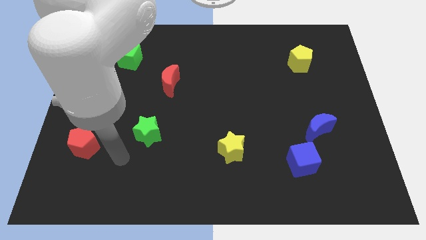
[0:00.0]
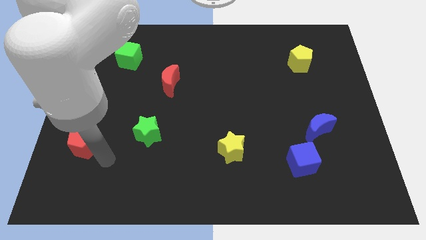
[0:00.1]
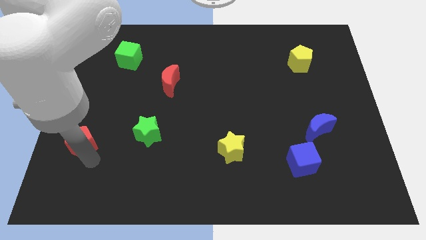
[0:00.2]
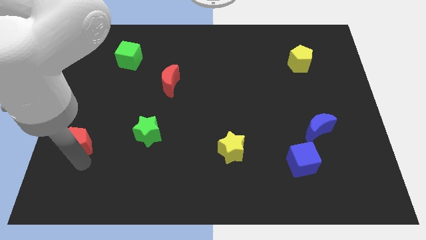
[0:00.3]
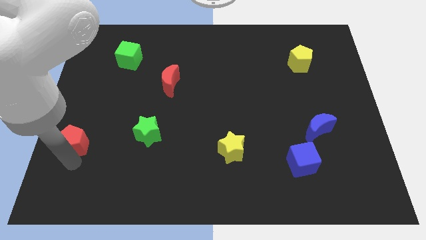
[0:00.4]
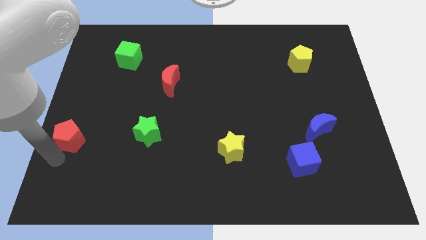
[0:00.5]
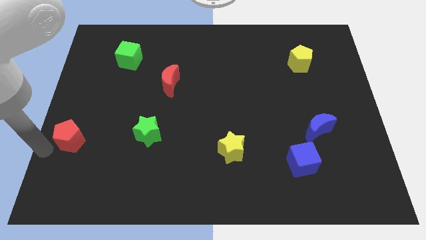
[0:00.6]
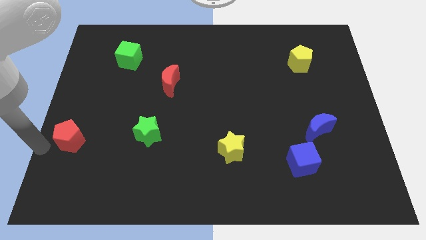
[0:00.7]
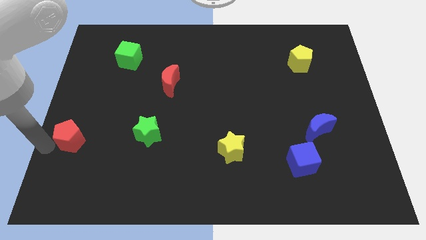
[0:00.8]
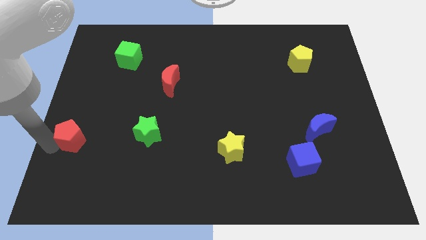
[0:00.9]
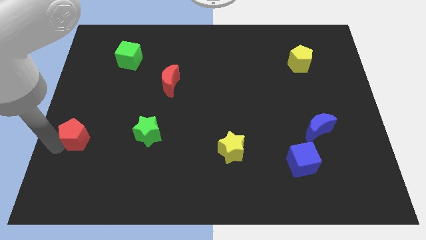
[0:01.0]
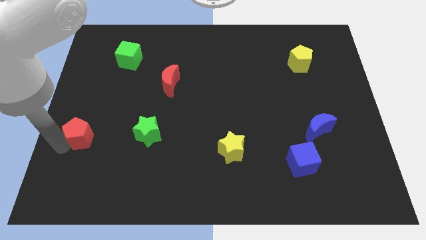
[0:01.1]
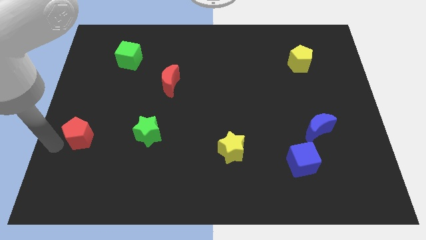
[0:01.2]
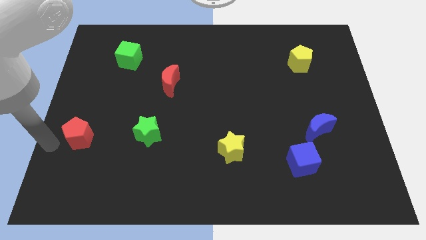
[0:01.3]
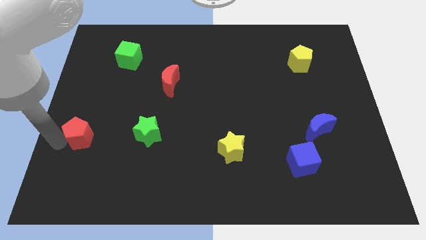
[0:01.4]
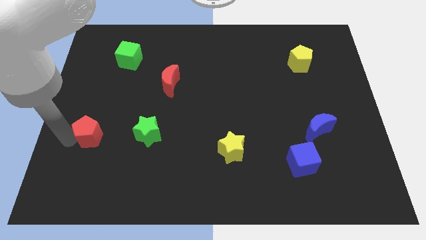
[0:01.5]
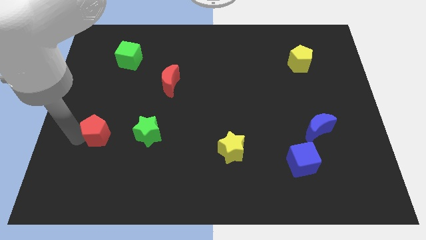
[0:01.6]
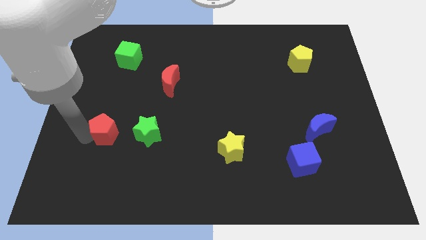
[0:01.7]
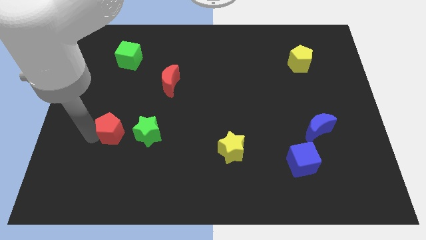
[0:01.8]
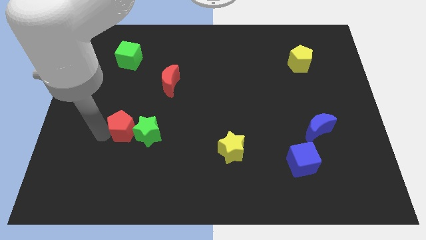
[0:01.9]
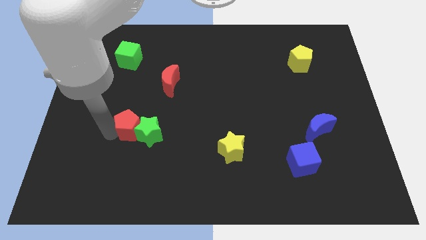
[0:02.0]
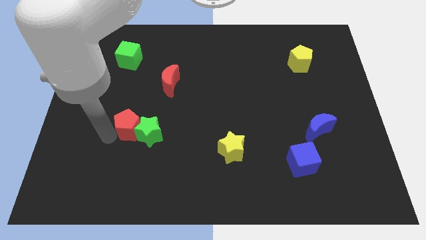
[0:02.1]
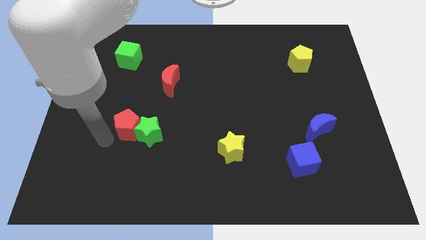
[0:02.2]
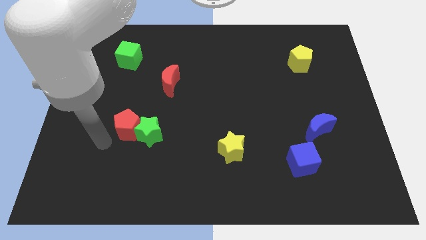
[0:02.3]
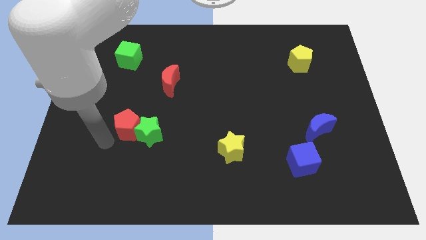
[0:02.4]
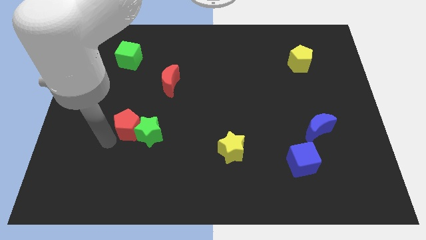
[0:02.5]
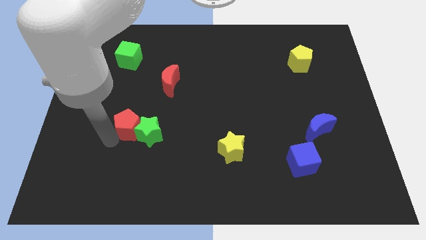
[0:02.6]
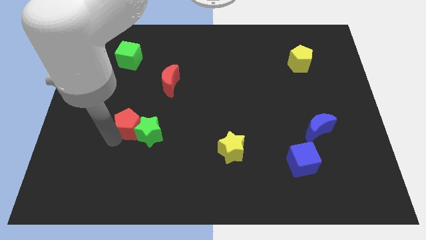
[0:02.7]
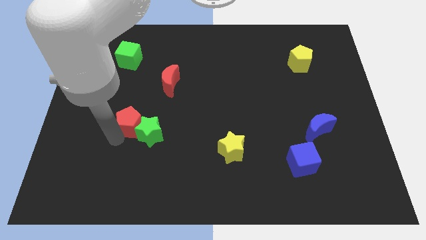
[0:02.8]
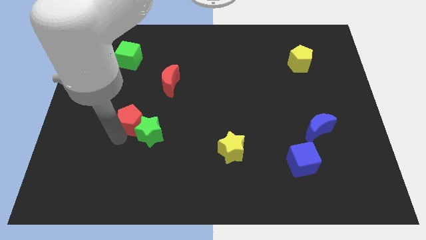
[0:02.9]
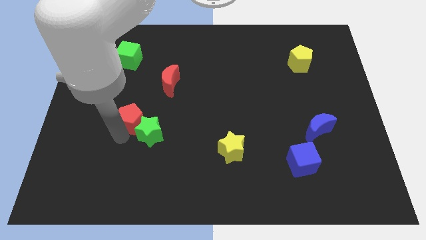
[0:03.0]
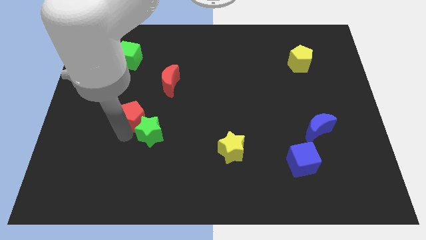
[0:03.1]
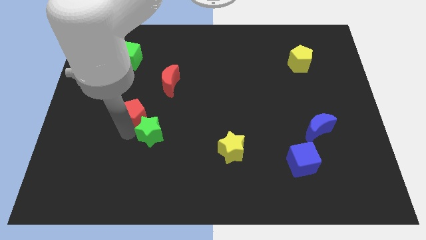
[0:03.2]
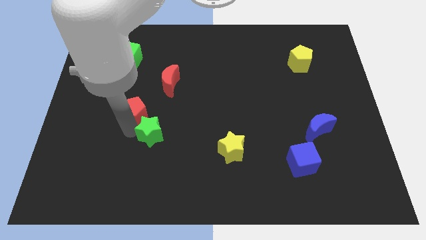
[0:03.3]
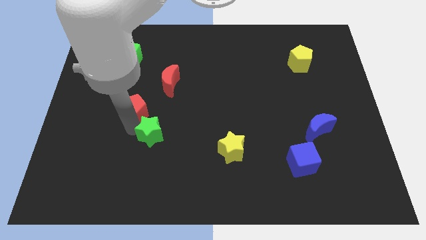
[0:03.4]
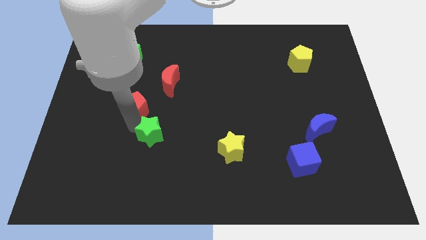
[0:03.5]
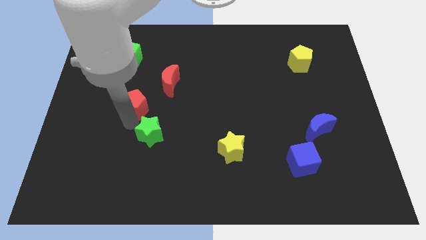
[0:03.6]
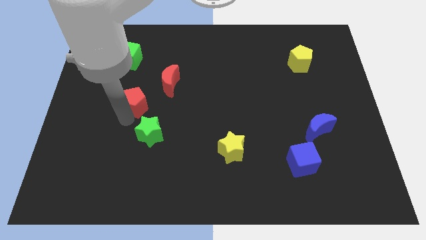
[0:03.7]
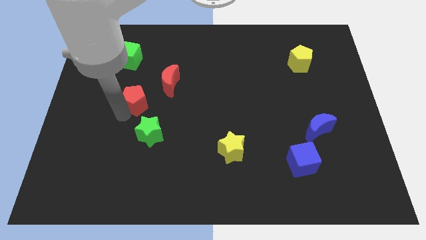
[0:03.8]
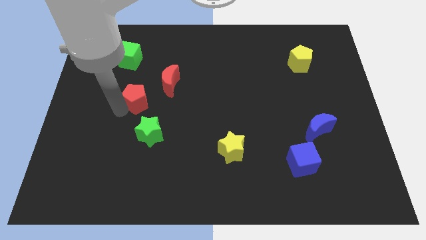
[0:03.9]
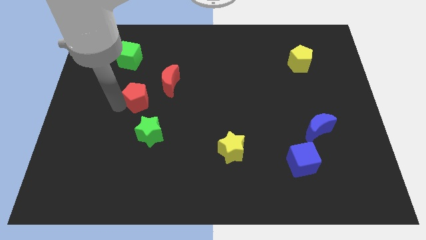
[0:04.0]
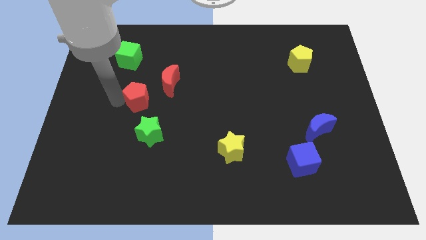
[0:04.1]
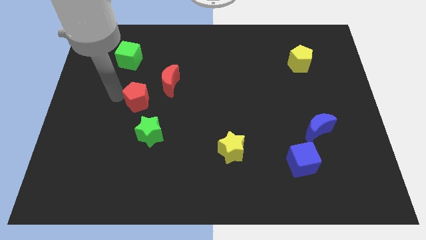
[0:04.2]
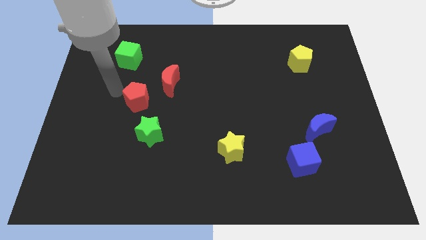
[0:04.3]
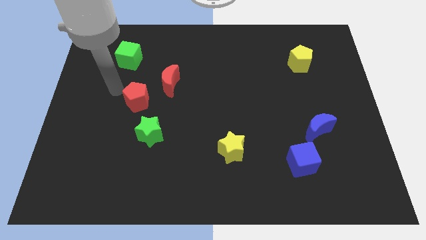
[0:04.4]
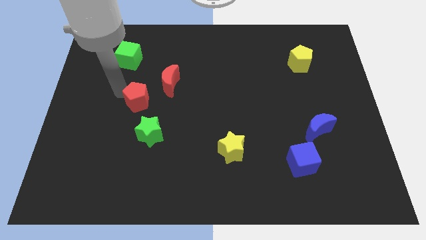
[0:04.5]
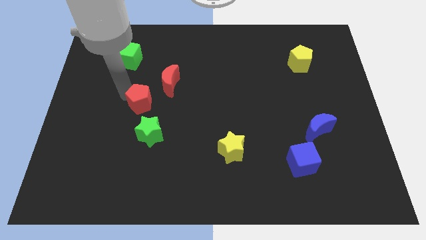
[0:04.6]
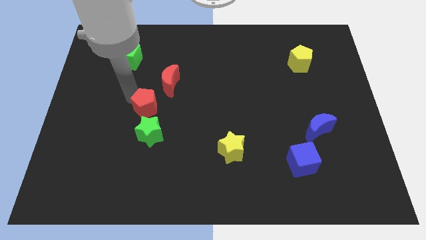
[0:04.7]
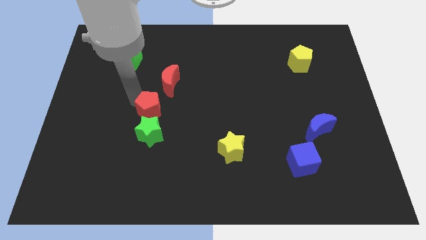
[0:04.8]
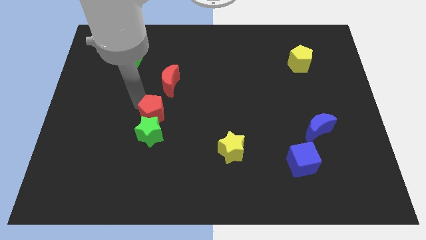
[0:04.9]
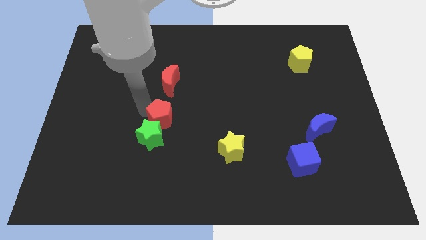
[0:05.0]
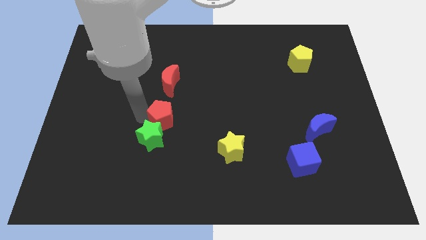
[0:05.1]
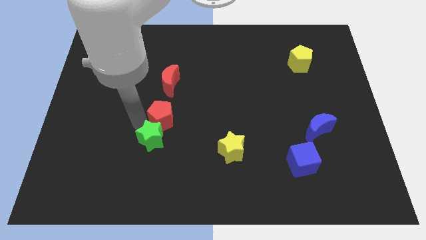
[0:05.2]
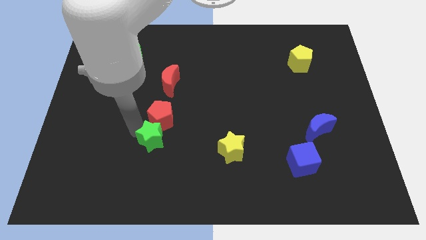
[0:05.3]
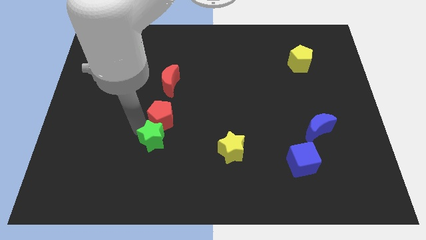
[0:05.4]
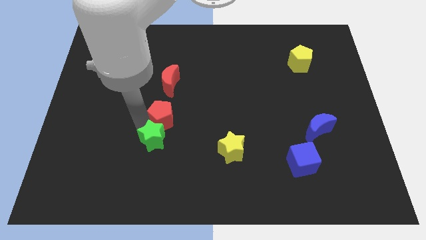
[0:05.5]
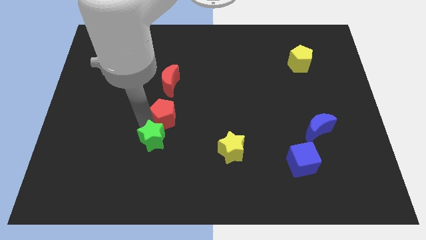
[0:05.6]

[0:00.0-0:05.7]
slide the red pentagon to the middle of the board
